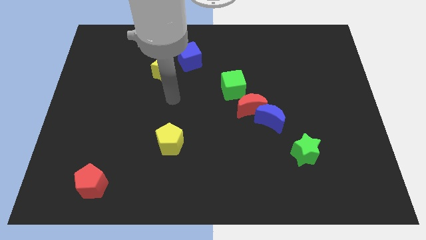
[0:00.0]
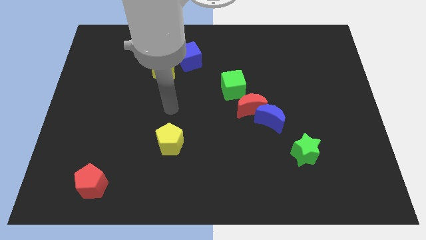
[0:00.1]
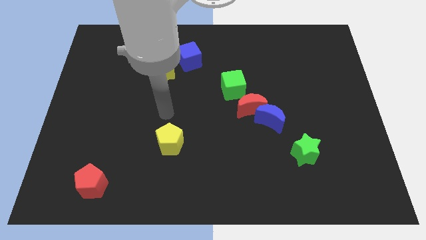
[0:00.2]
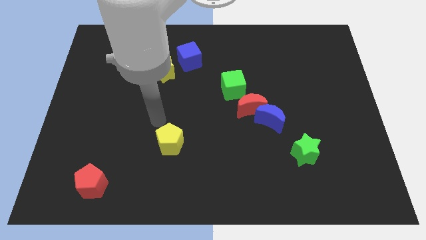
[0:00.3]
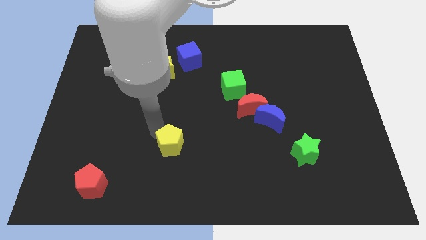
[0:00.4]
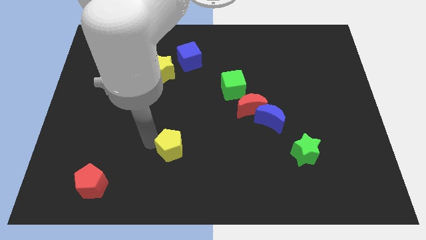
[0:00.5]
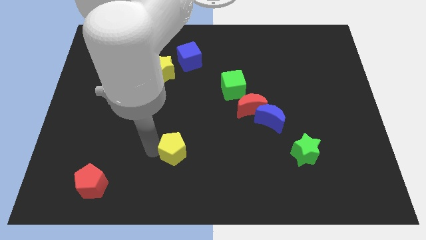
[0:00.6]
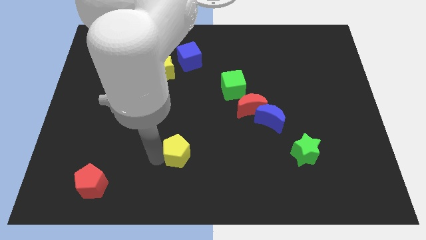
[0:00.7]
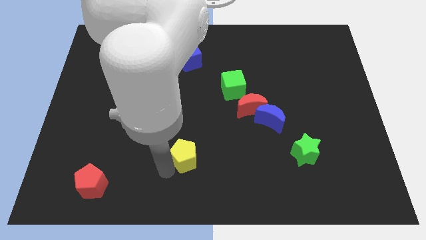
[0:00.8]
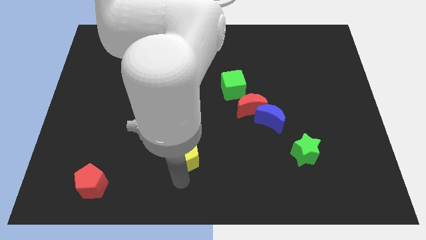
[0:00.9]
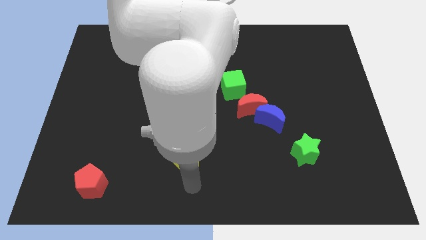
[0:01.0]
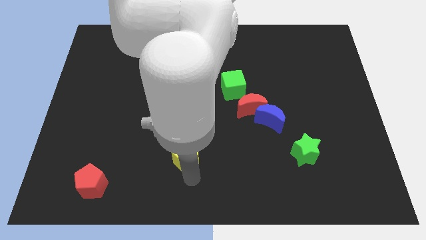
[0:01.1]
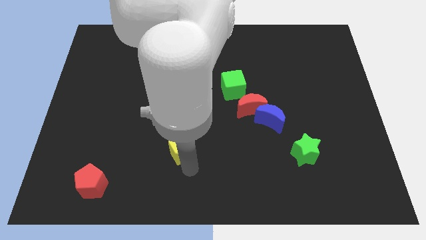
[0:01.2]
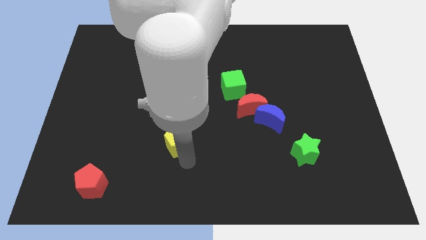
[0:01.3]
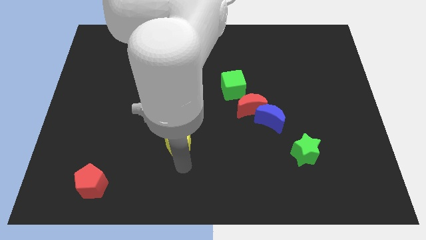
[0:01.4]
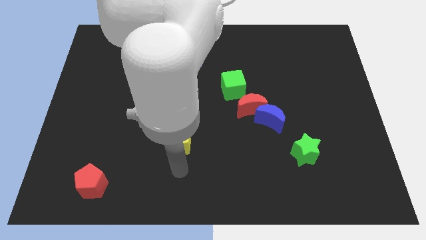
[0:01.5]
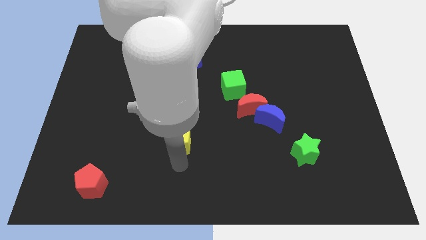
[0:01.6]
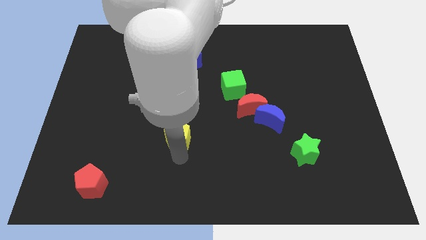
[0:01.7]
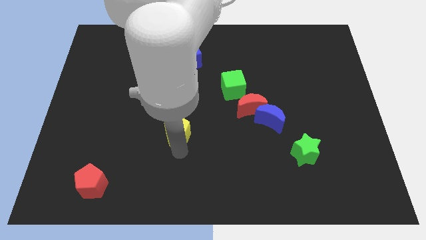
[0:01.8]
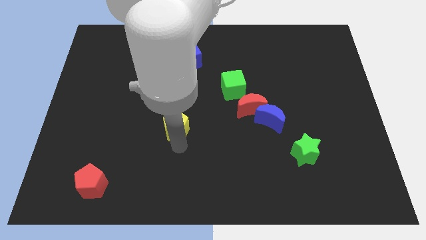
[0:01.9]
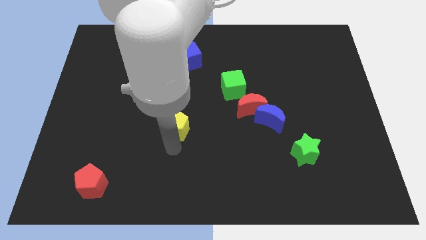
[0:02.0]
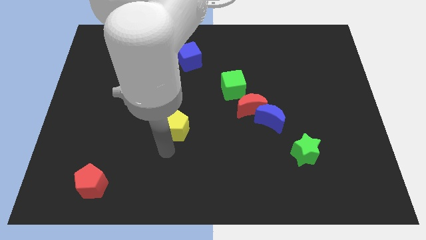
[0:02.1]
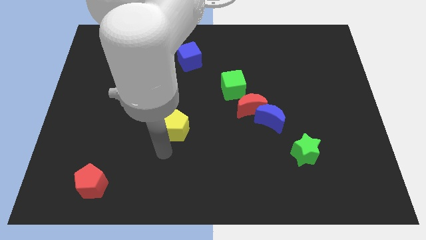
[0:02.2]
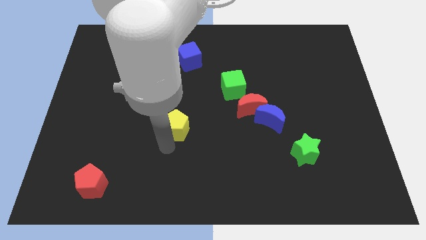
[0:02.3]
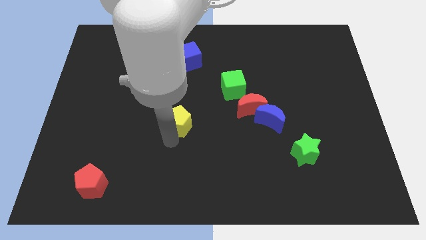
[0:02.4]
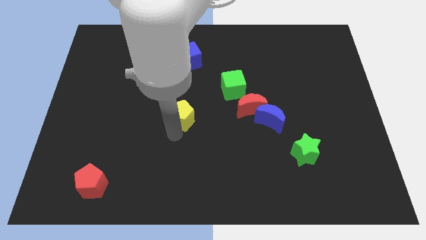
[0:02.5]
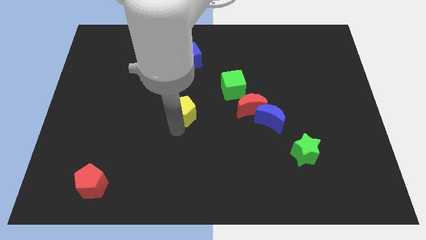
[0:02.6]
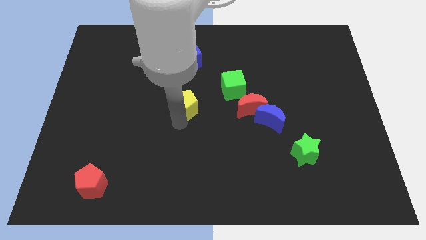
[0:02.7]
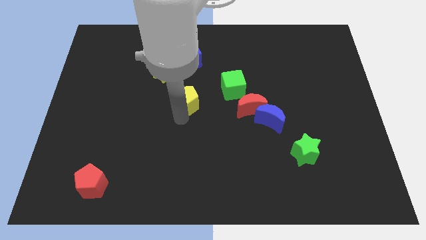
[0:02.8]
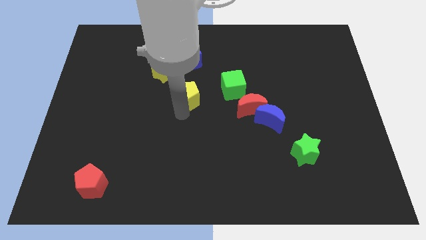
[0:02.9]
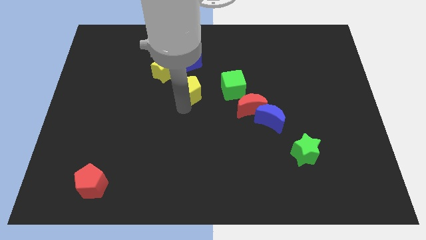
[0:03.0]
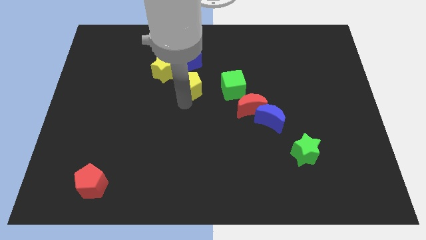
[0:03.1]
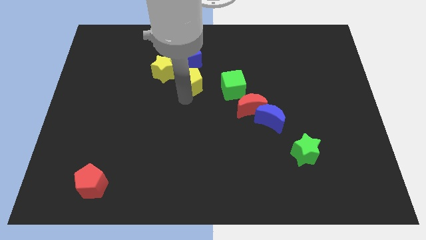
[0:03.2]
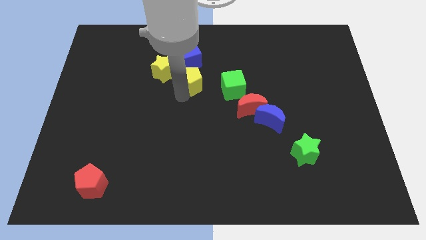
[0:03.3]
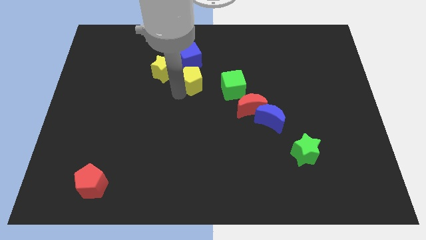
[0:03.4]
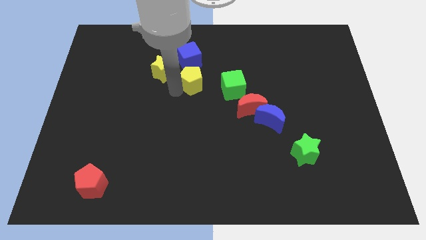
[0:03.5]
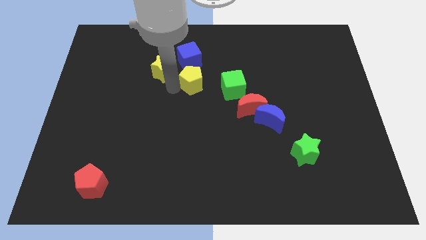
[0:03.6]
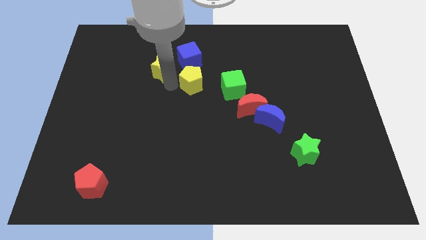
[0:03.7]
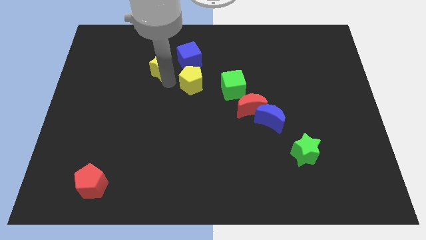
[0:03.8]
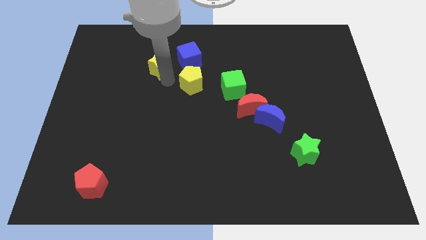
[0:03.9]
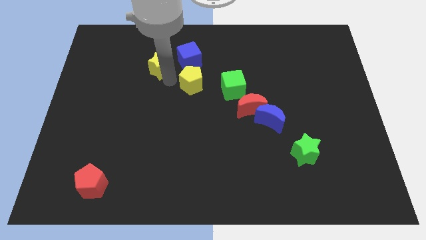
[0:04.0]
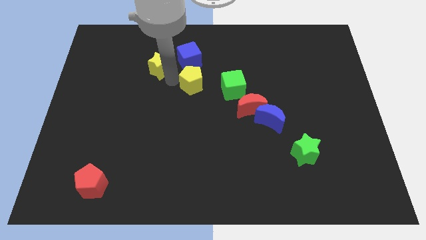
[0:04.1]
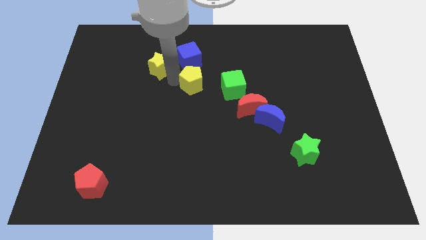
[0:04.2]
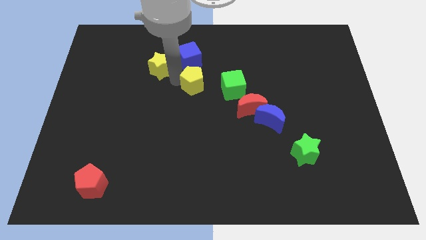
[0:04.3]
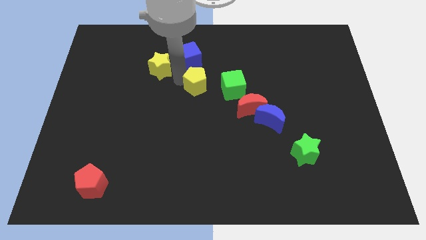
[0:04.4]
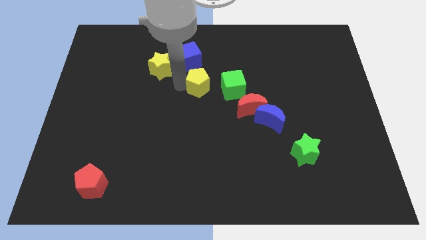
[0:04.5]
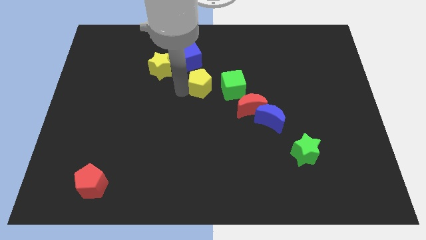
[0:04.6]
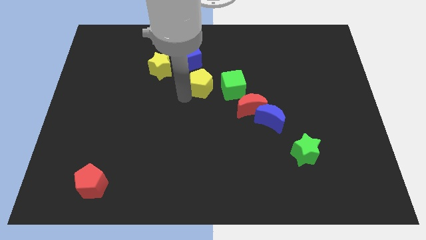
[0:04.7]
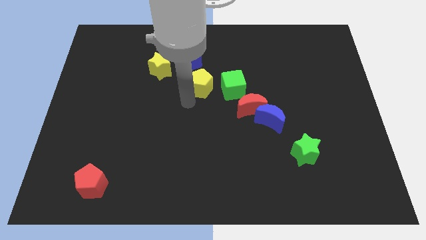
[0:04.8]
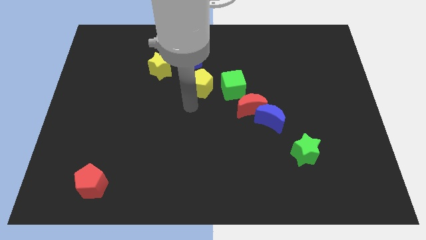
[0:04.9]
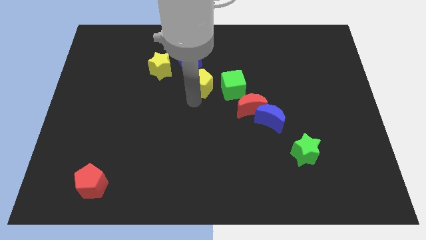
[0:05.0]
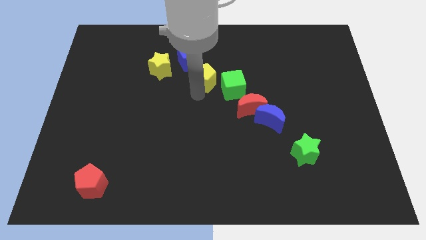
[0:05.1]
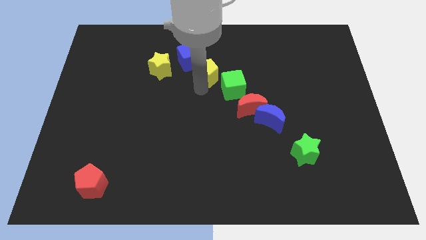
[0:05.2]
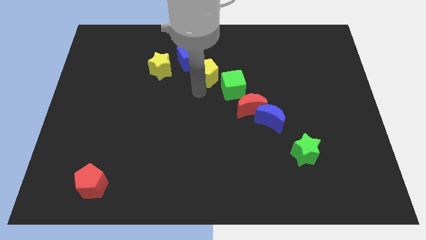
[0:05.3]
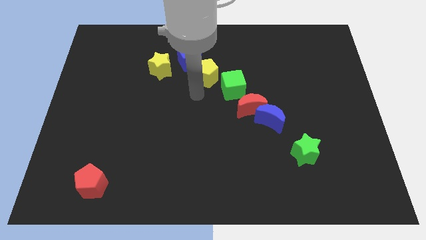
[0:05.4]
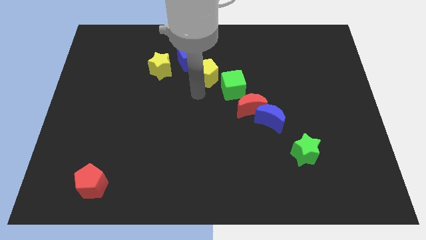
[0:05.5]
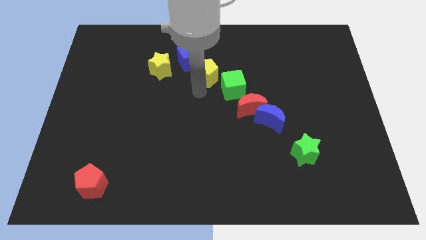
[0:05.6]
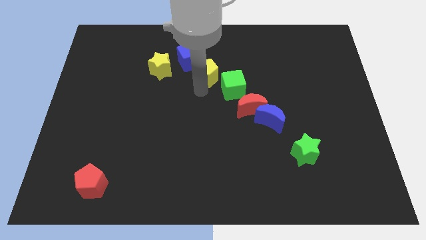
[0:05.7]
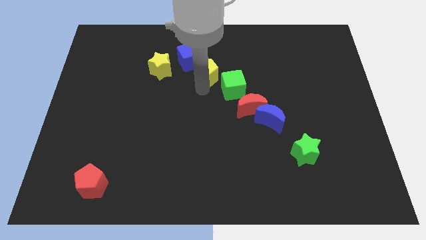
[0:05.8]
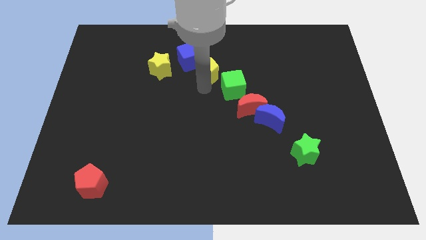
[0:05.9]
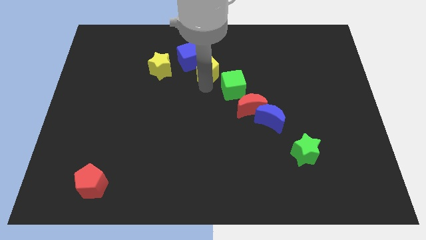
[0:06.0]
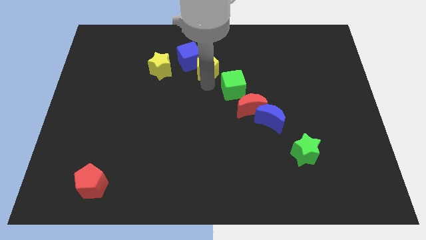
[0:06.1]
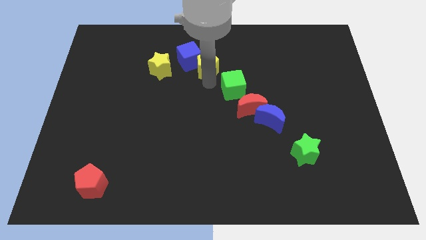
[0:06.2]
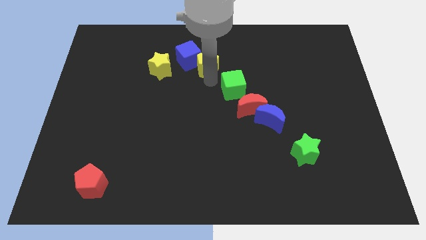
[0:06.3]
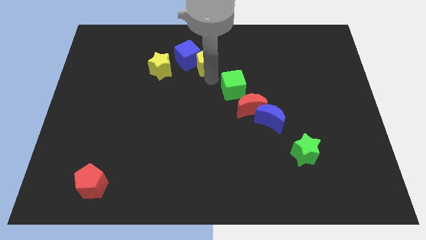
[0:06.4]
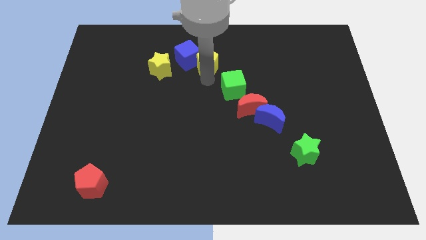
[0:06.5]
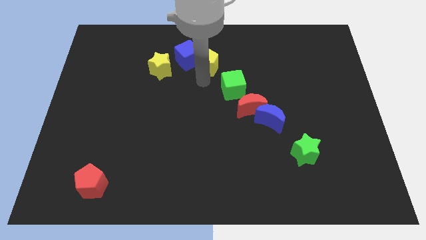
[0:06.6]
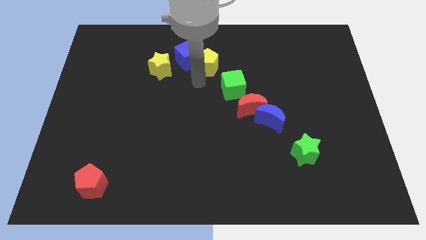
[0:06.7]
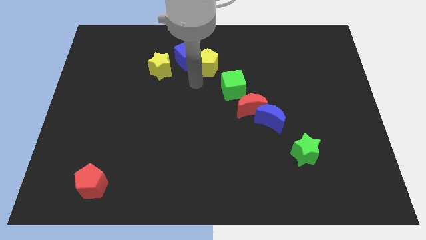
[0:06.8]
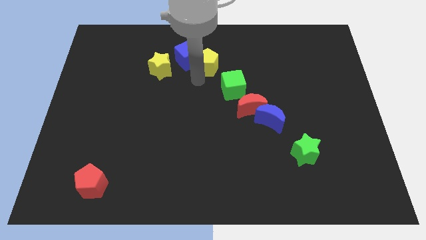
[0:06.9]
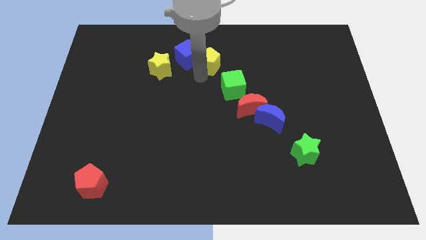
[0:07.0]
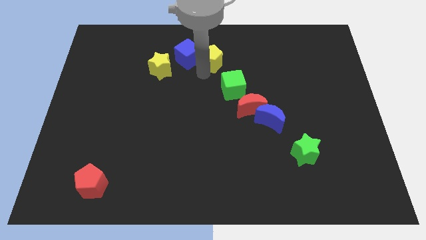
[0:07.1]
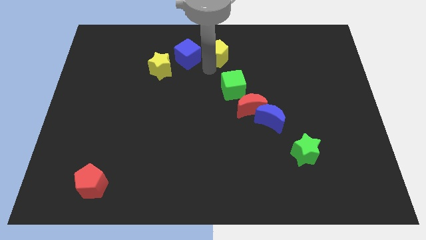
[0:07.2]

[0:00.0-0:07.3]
push the yellow pentagon to the towards your base
